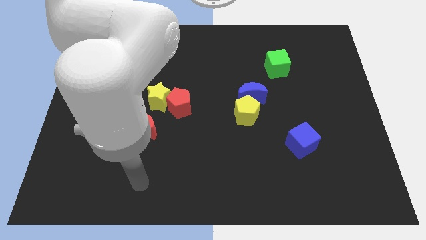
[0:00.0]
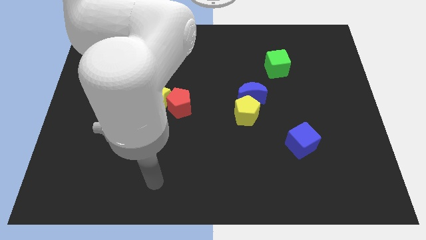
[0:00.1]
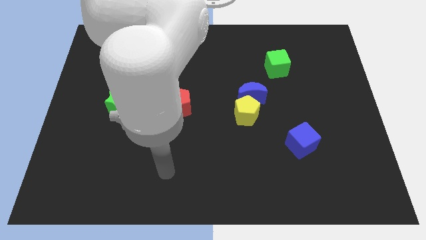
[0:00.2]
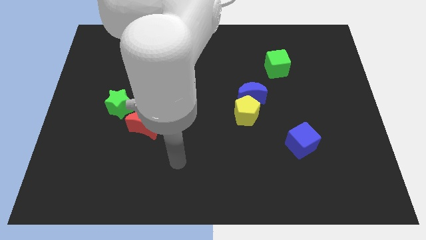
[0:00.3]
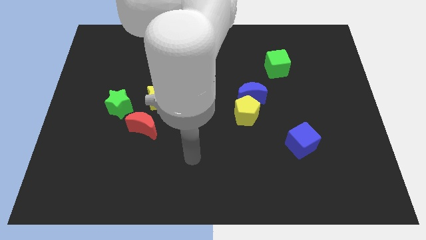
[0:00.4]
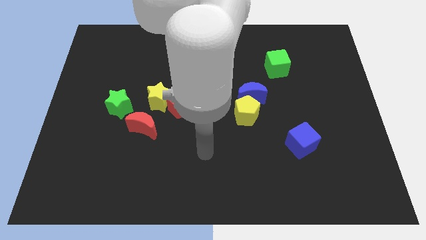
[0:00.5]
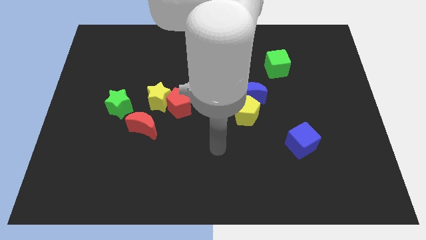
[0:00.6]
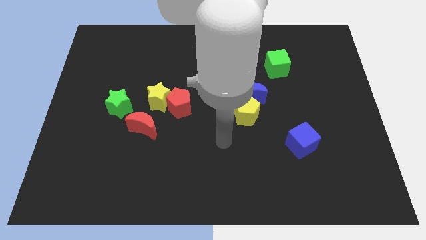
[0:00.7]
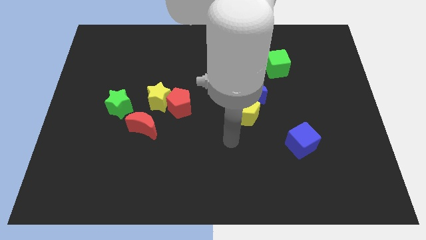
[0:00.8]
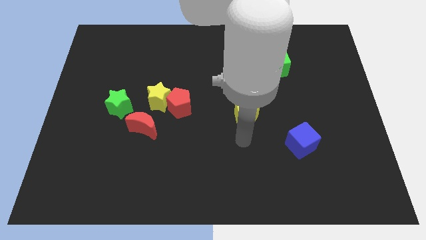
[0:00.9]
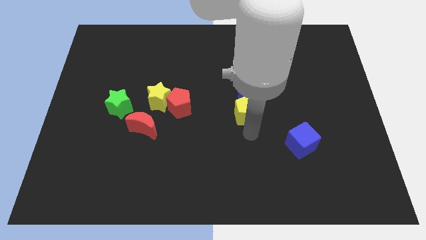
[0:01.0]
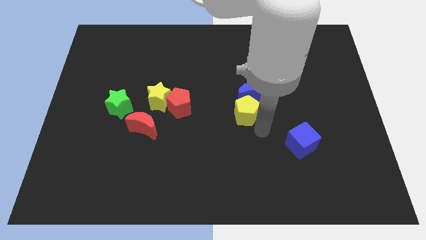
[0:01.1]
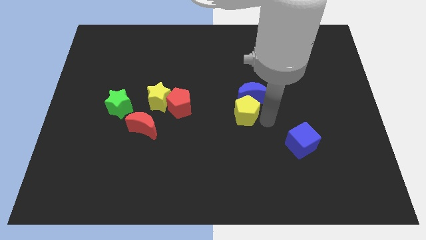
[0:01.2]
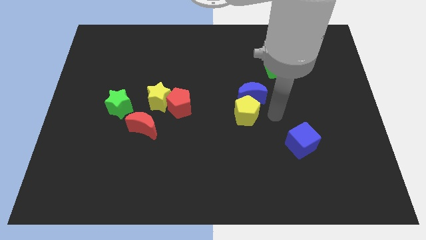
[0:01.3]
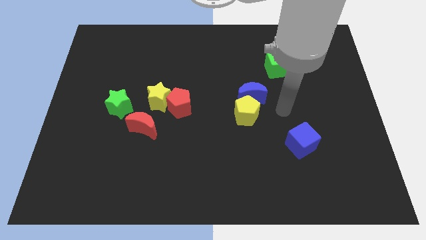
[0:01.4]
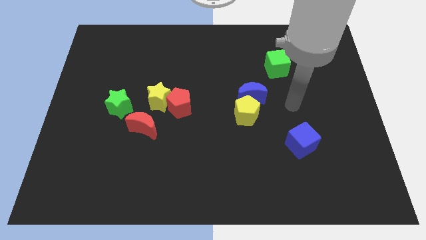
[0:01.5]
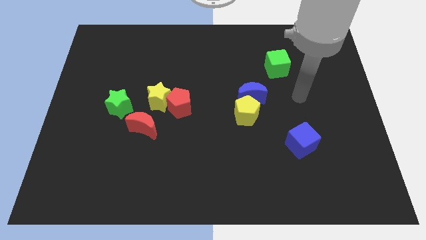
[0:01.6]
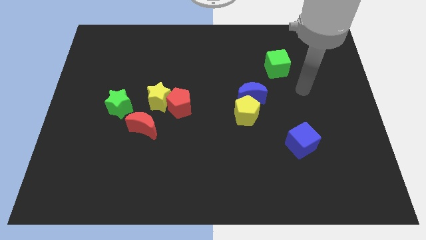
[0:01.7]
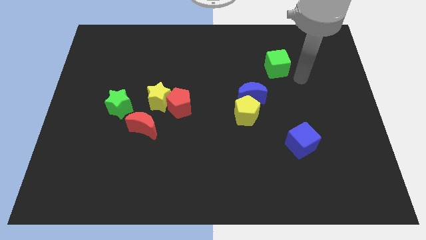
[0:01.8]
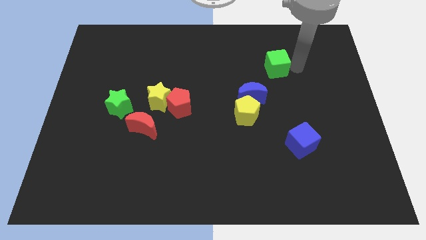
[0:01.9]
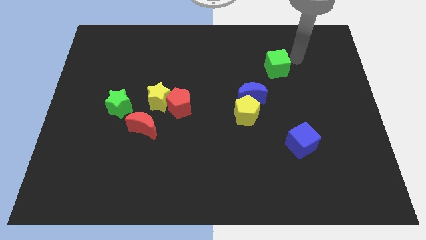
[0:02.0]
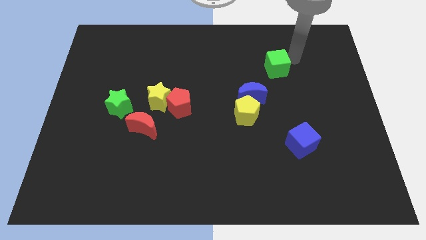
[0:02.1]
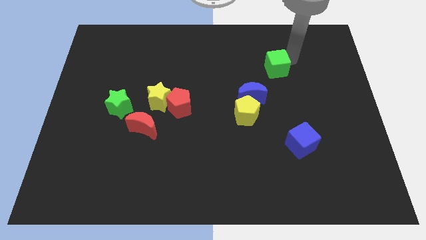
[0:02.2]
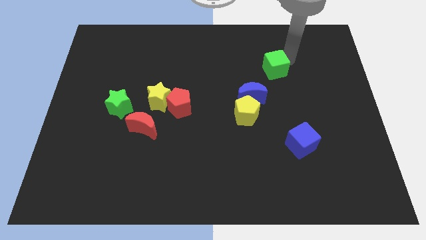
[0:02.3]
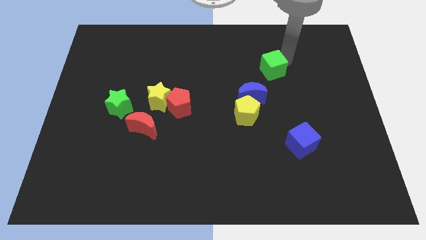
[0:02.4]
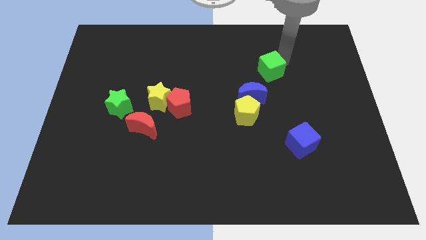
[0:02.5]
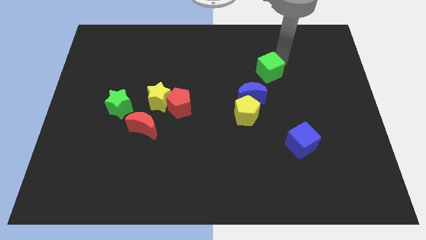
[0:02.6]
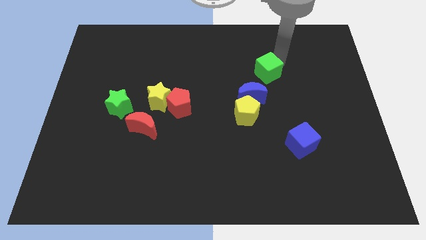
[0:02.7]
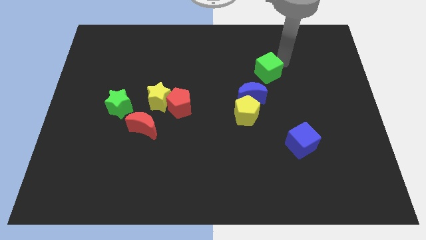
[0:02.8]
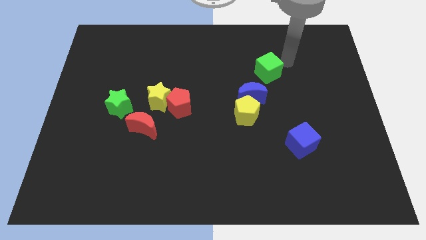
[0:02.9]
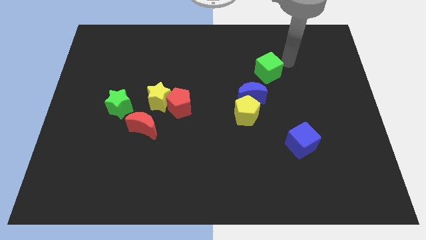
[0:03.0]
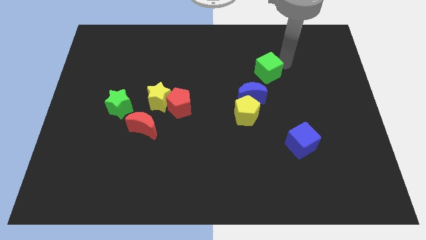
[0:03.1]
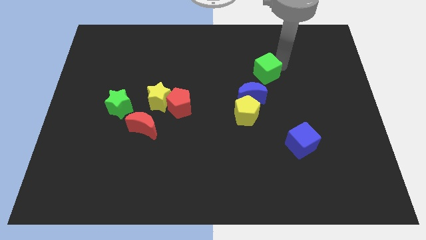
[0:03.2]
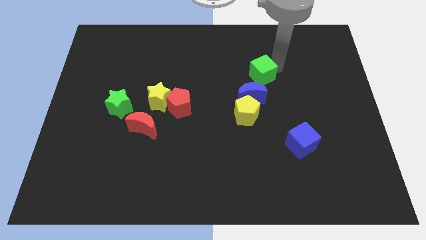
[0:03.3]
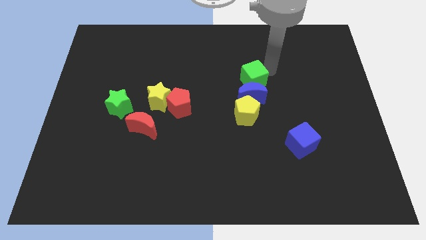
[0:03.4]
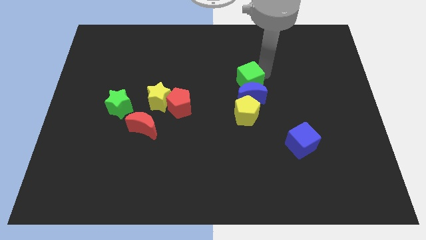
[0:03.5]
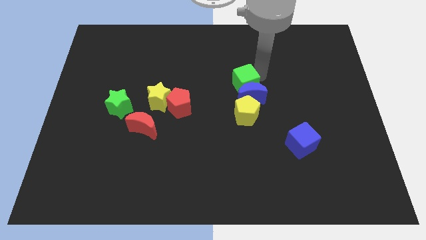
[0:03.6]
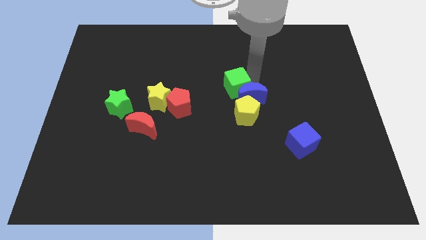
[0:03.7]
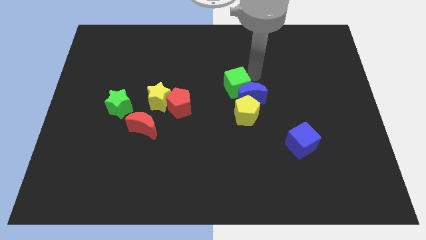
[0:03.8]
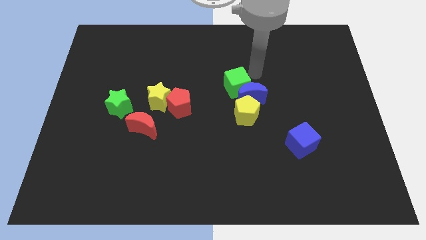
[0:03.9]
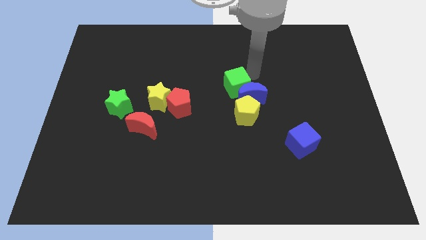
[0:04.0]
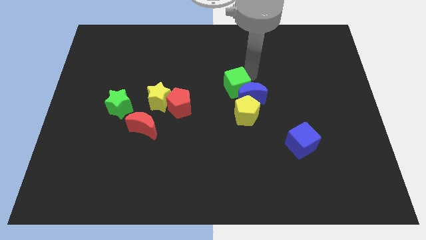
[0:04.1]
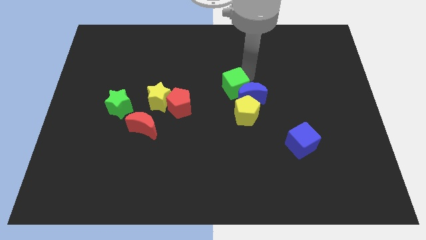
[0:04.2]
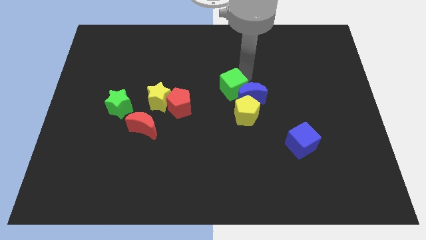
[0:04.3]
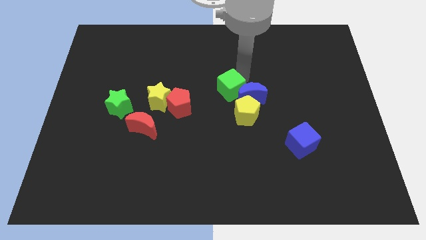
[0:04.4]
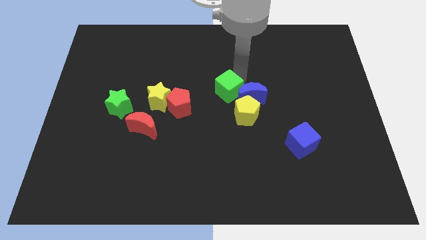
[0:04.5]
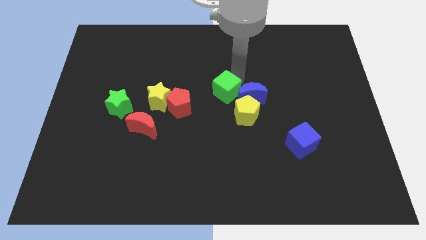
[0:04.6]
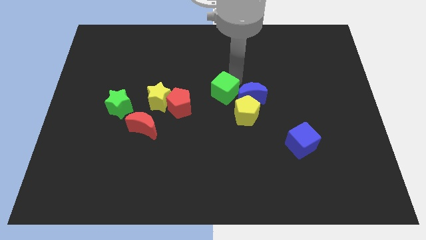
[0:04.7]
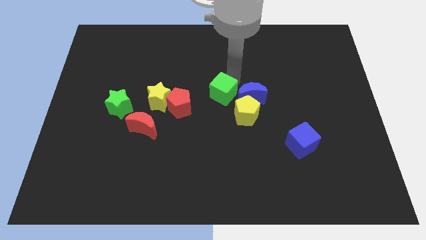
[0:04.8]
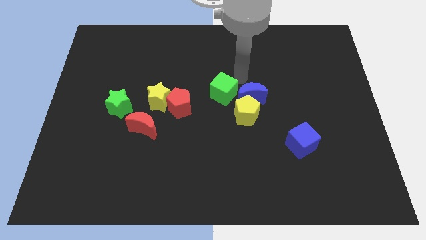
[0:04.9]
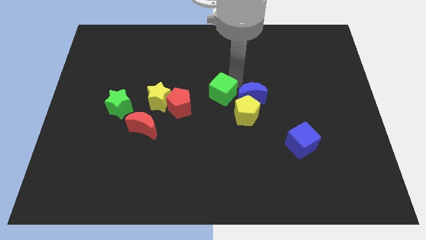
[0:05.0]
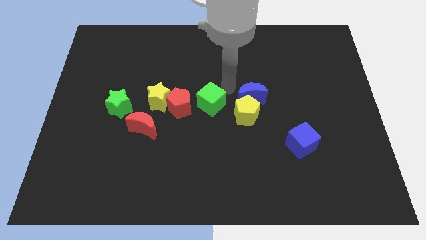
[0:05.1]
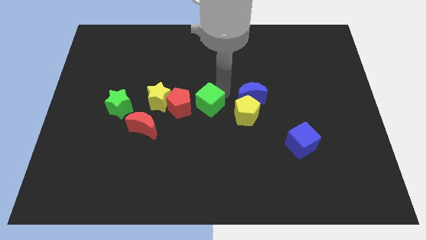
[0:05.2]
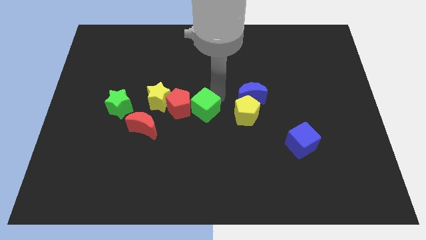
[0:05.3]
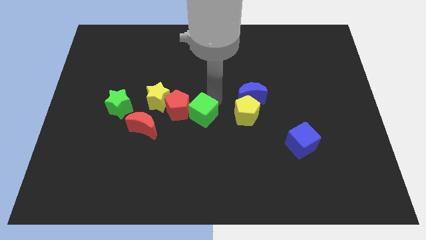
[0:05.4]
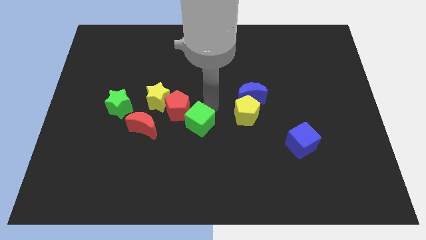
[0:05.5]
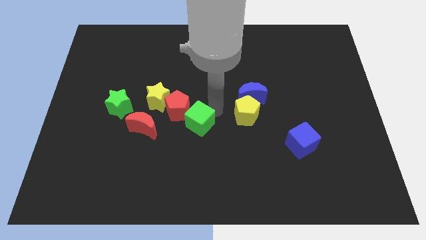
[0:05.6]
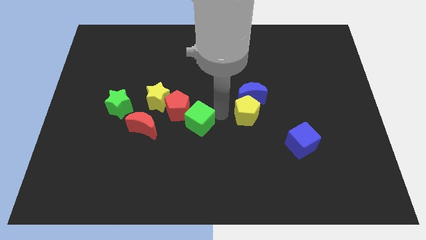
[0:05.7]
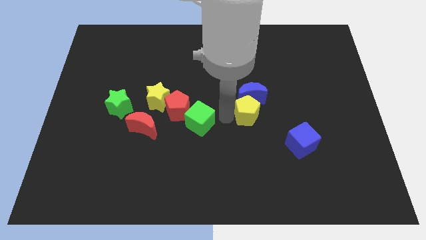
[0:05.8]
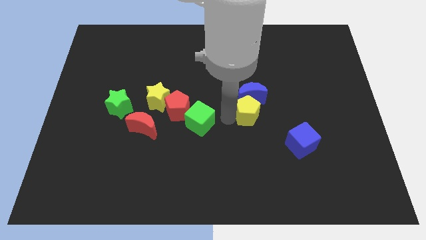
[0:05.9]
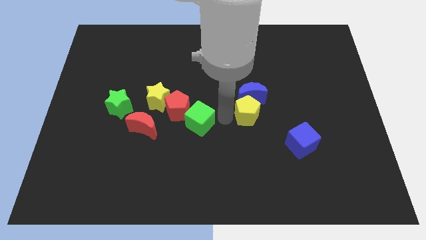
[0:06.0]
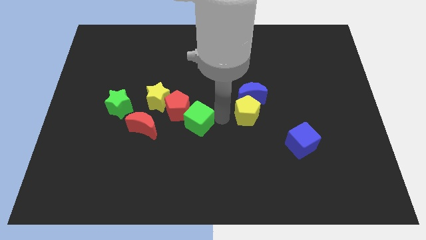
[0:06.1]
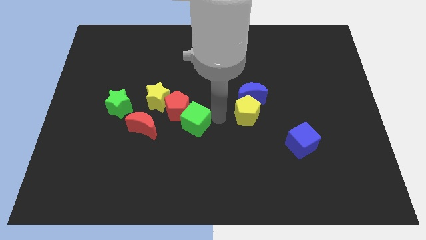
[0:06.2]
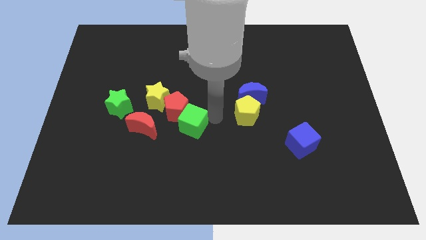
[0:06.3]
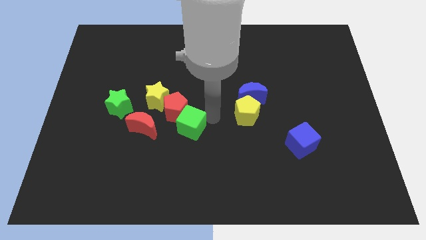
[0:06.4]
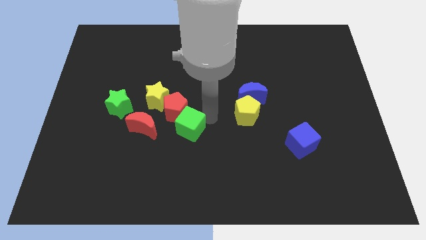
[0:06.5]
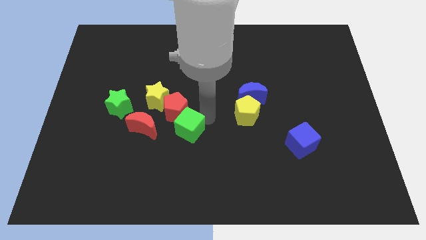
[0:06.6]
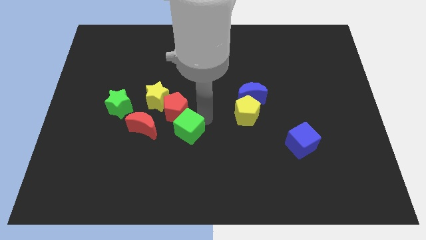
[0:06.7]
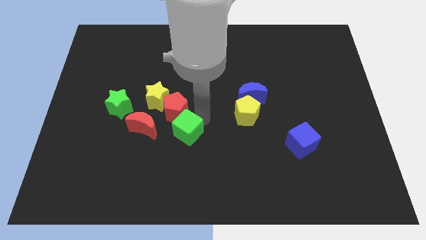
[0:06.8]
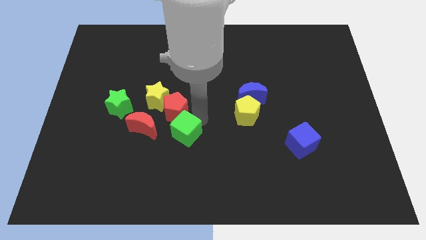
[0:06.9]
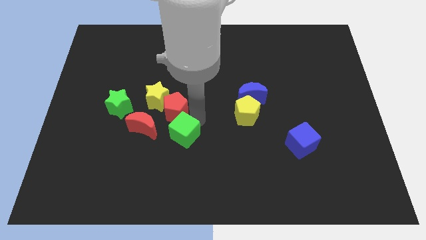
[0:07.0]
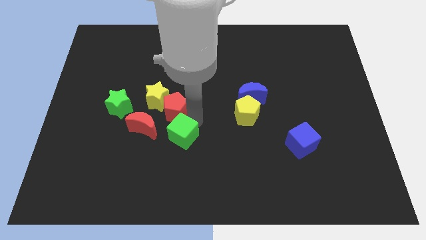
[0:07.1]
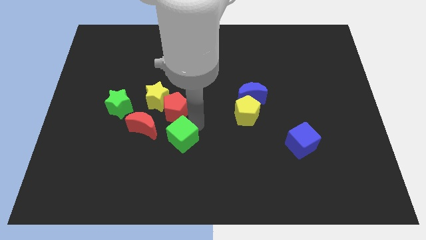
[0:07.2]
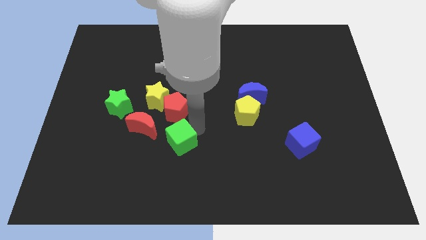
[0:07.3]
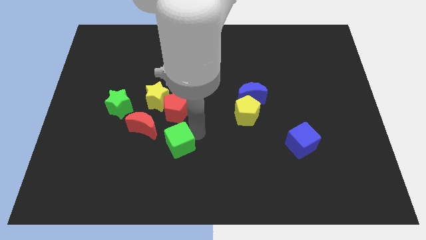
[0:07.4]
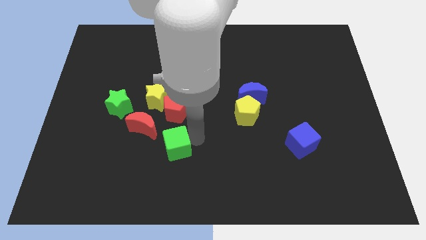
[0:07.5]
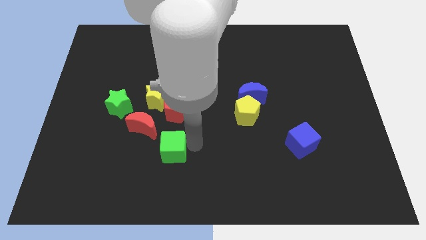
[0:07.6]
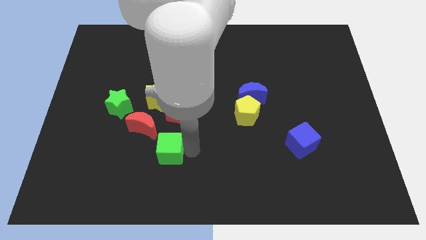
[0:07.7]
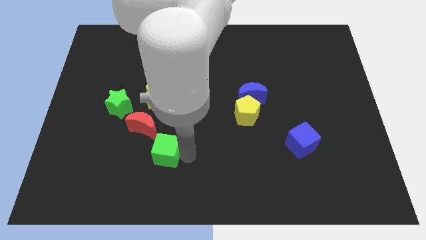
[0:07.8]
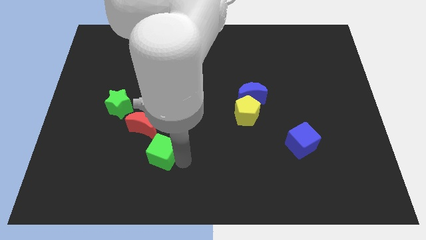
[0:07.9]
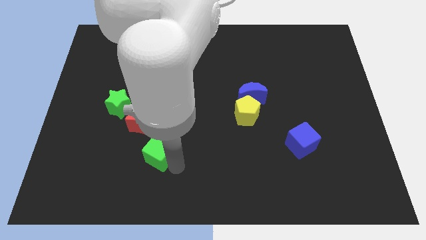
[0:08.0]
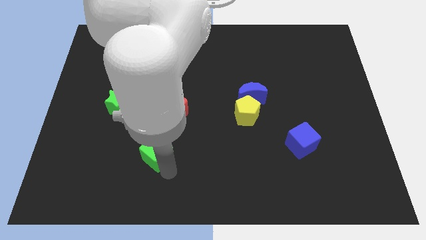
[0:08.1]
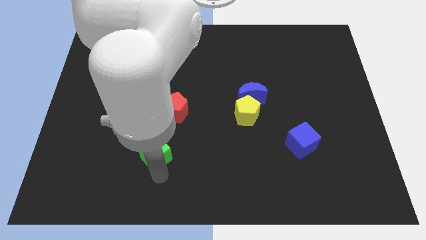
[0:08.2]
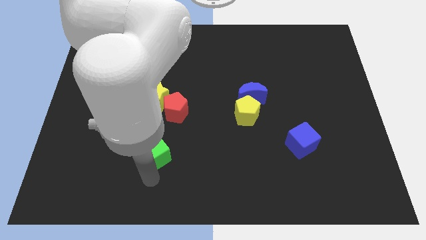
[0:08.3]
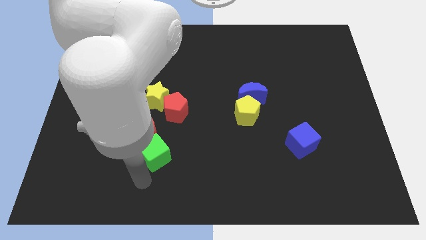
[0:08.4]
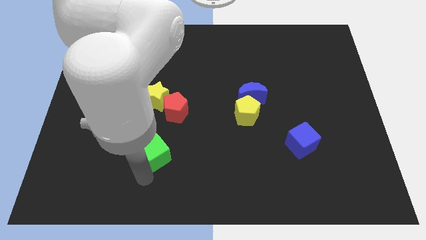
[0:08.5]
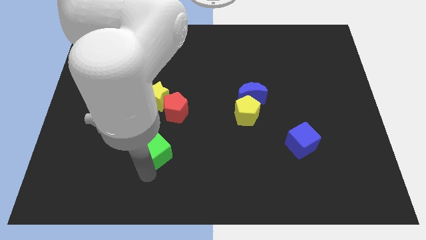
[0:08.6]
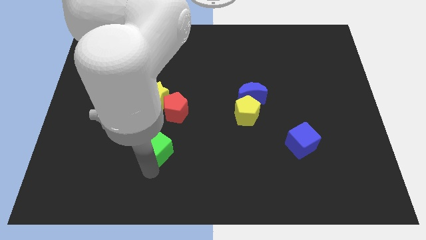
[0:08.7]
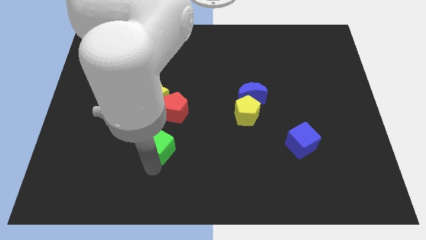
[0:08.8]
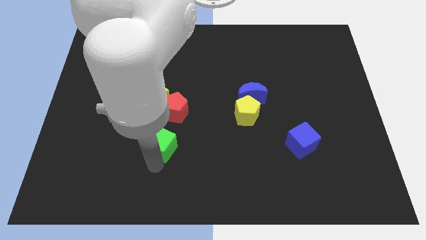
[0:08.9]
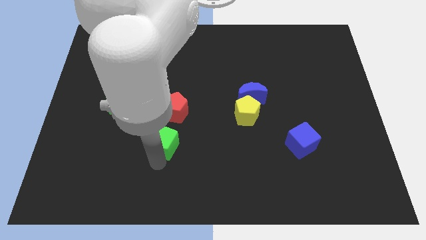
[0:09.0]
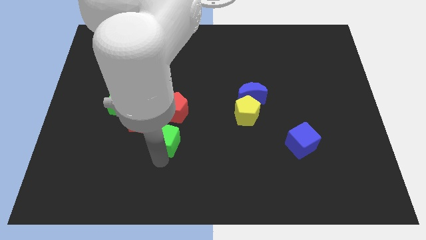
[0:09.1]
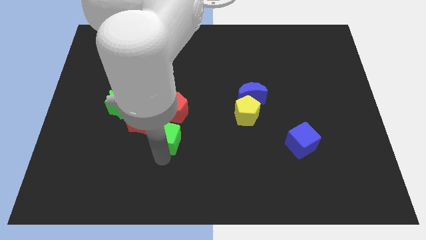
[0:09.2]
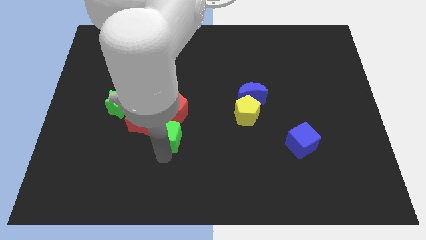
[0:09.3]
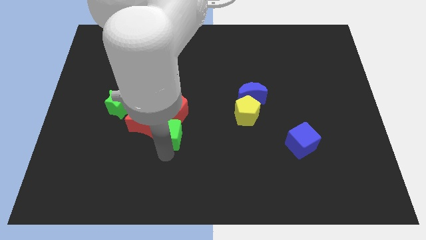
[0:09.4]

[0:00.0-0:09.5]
move the green cube close to the red moon
